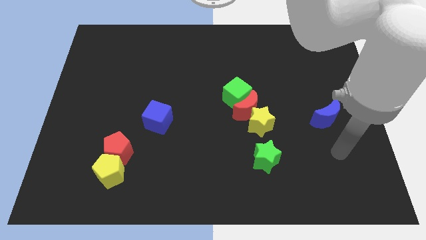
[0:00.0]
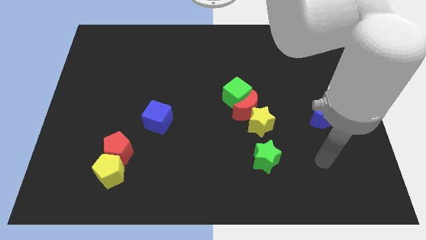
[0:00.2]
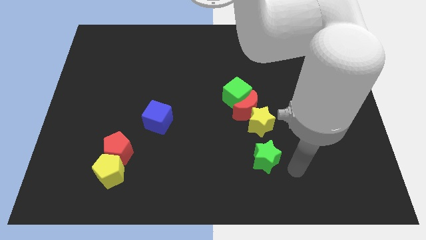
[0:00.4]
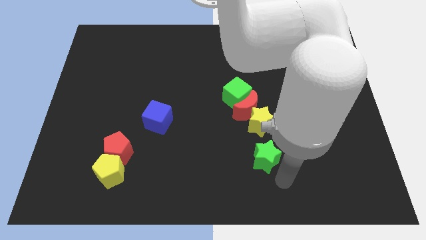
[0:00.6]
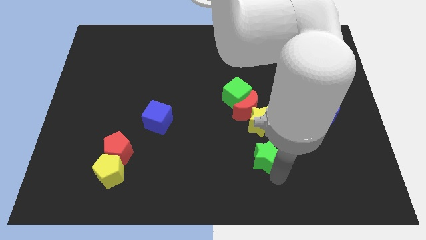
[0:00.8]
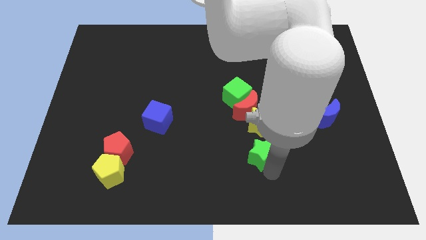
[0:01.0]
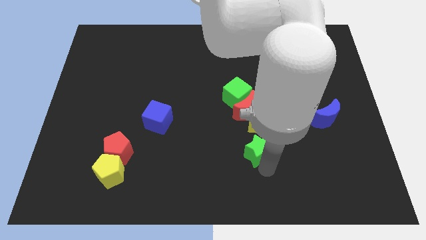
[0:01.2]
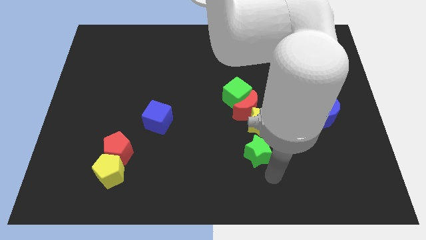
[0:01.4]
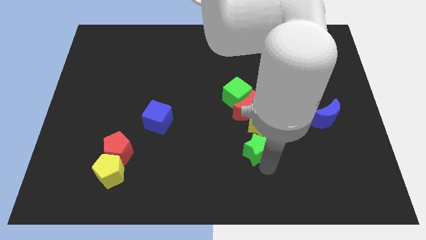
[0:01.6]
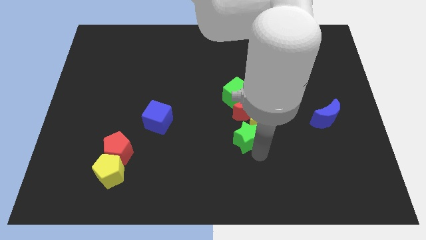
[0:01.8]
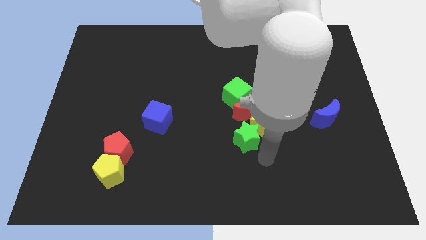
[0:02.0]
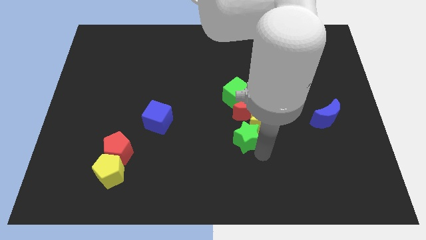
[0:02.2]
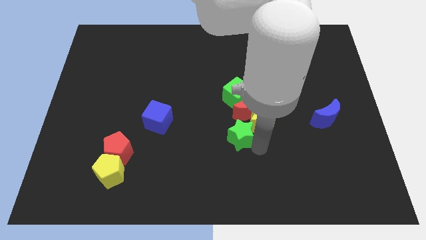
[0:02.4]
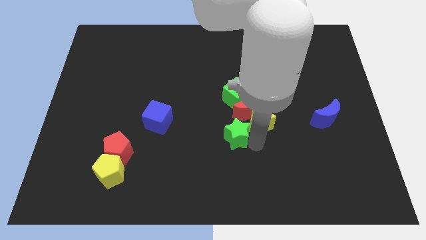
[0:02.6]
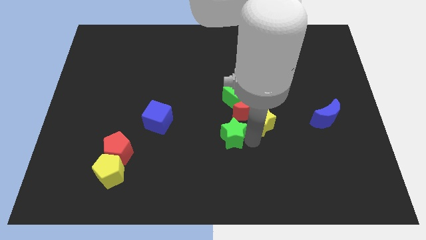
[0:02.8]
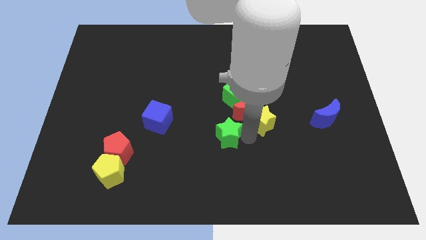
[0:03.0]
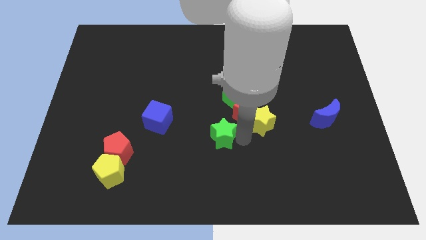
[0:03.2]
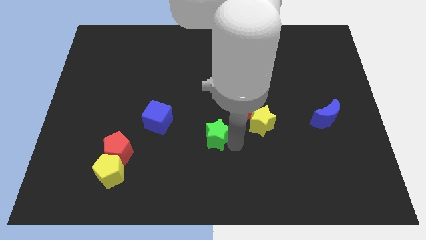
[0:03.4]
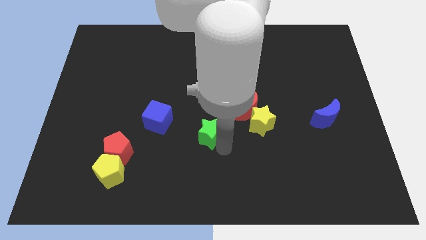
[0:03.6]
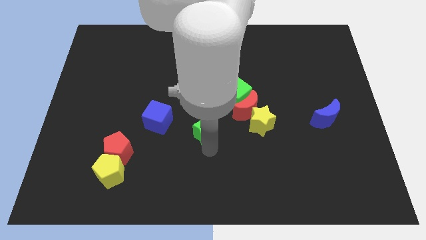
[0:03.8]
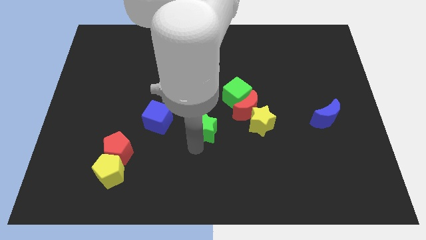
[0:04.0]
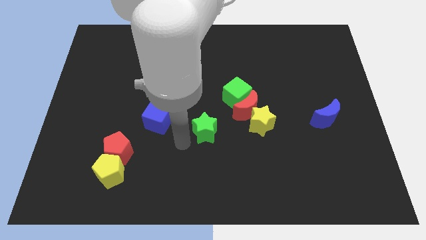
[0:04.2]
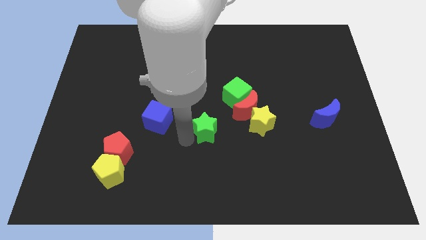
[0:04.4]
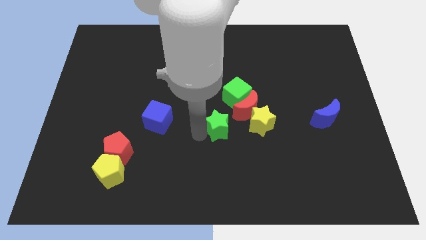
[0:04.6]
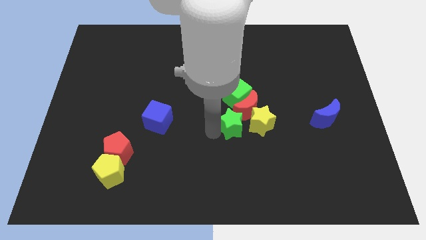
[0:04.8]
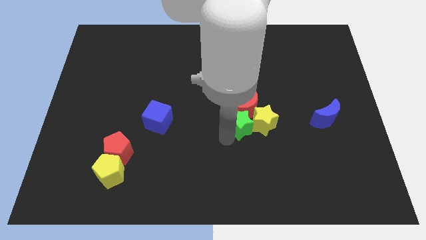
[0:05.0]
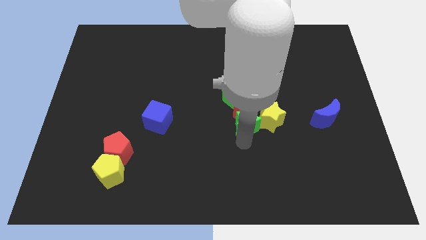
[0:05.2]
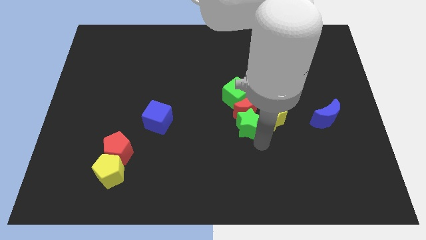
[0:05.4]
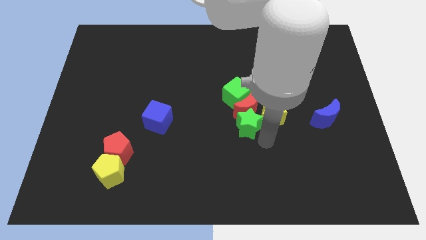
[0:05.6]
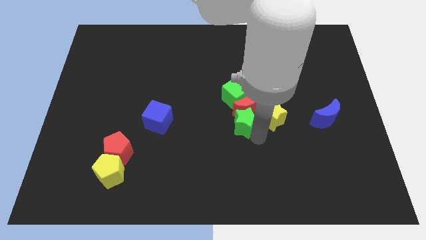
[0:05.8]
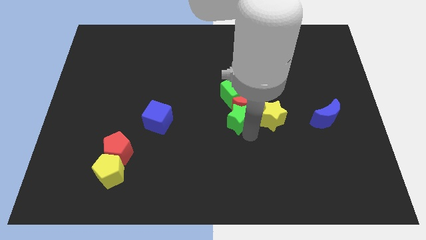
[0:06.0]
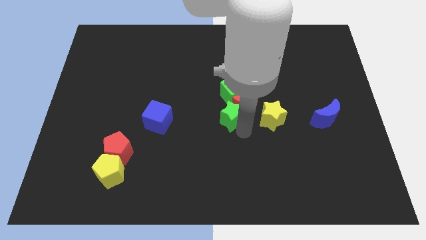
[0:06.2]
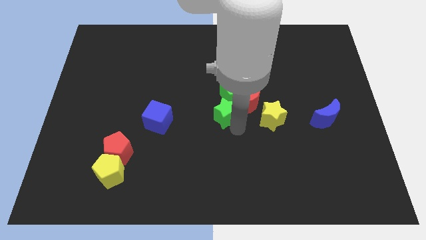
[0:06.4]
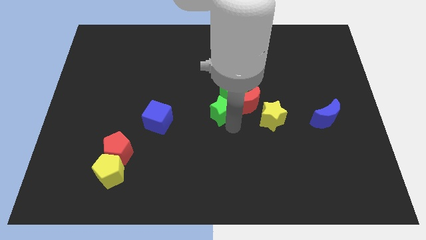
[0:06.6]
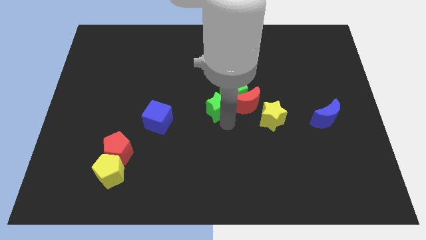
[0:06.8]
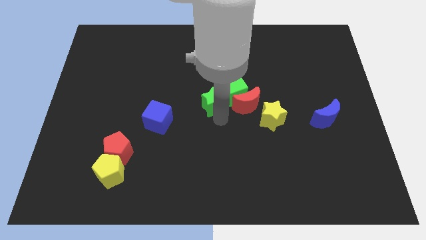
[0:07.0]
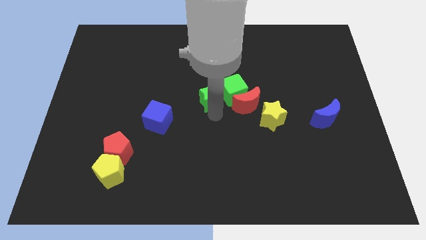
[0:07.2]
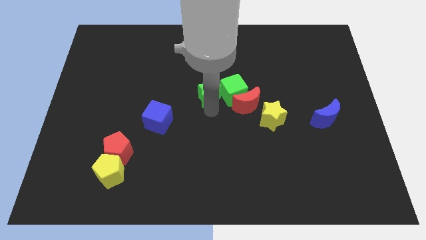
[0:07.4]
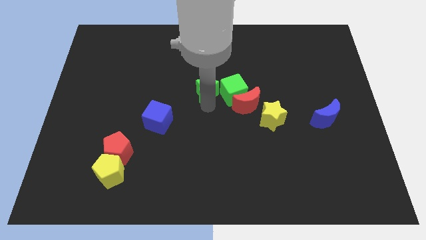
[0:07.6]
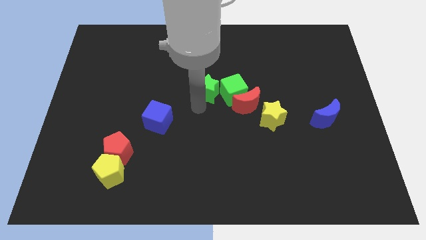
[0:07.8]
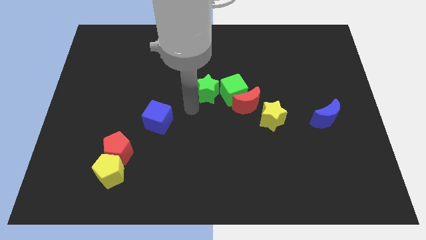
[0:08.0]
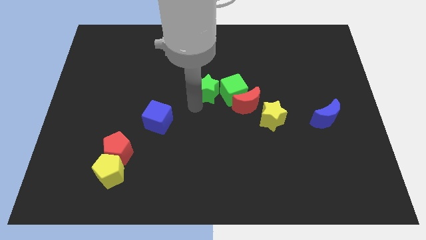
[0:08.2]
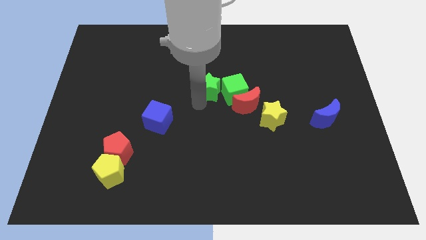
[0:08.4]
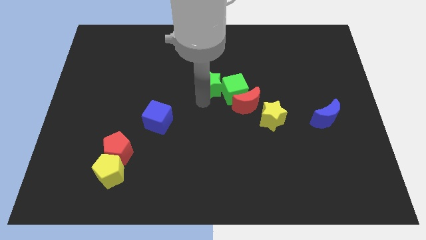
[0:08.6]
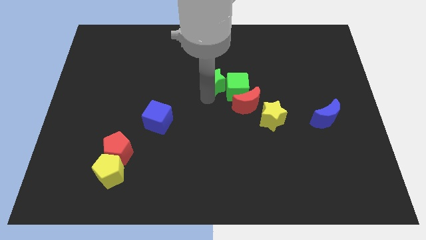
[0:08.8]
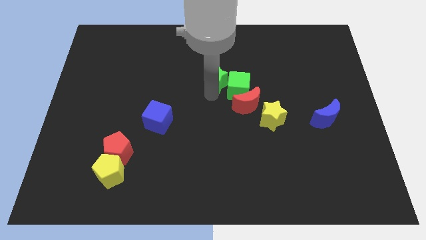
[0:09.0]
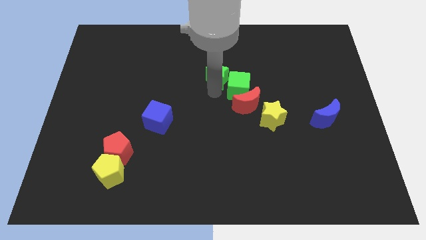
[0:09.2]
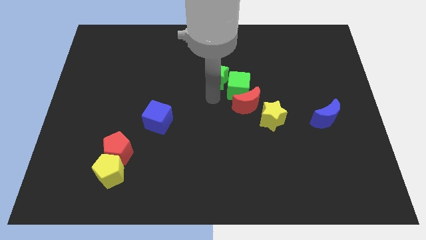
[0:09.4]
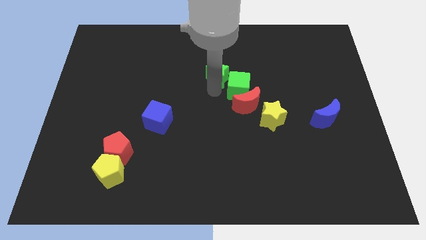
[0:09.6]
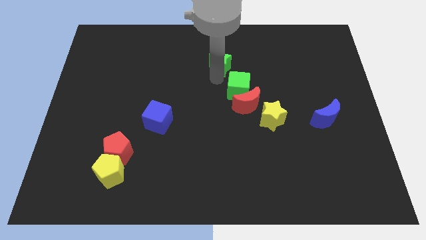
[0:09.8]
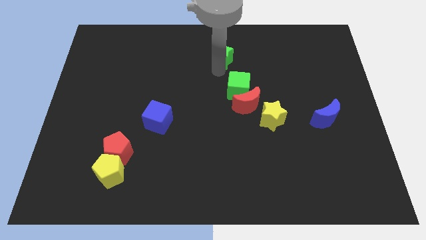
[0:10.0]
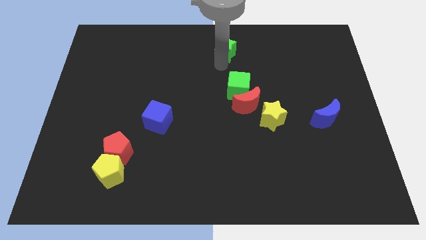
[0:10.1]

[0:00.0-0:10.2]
put the green star to the top side

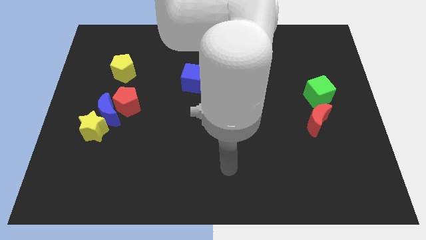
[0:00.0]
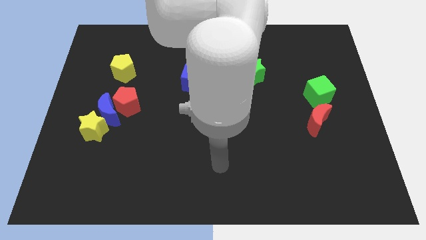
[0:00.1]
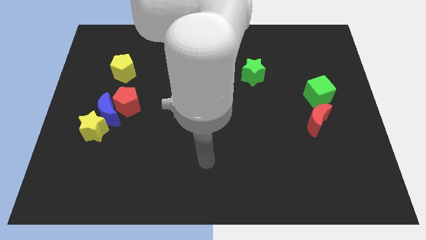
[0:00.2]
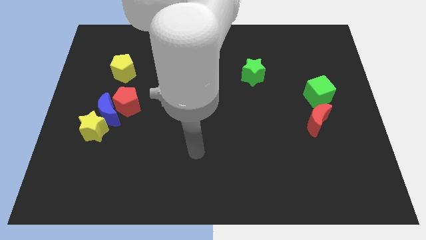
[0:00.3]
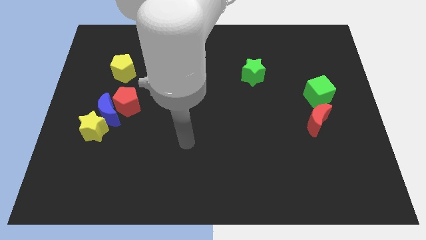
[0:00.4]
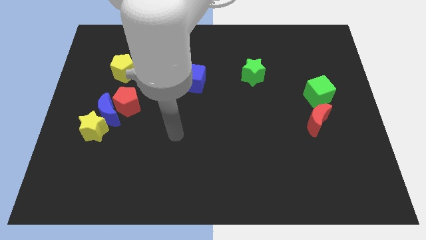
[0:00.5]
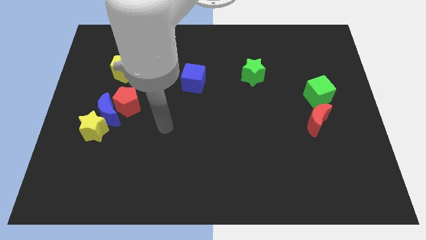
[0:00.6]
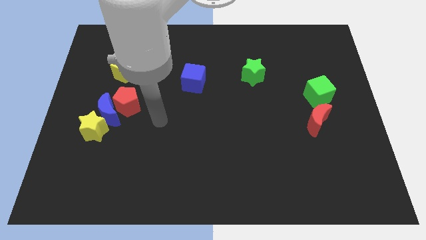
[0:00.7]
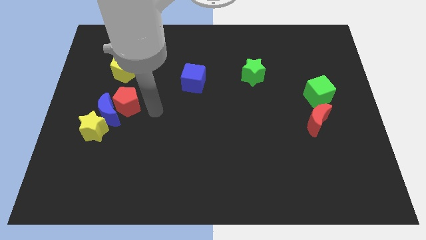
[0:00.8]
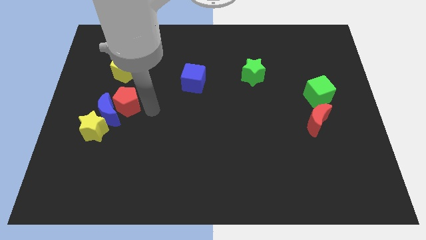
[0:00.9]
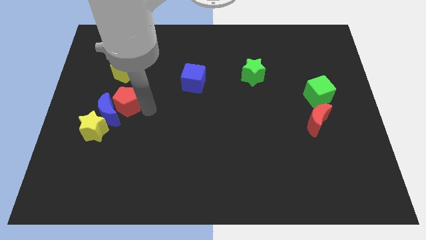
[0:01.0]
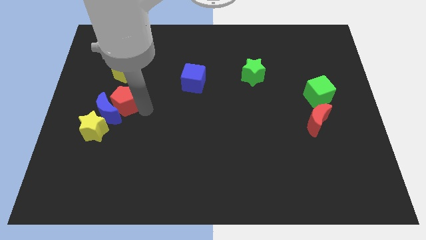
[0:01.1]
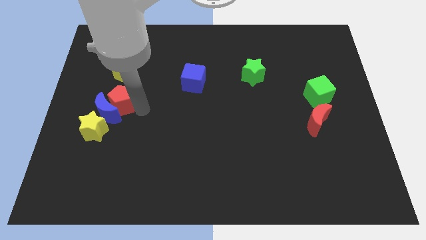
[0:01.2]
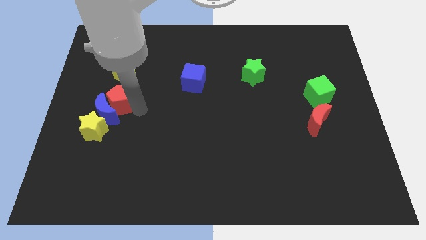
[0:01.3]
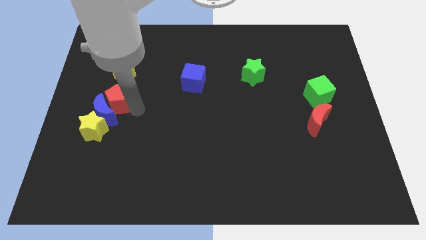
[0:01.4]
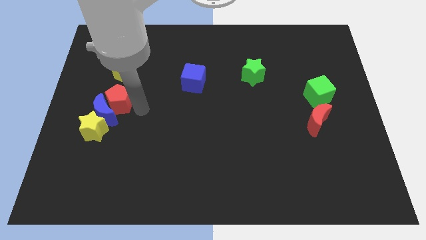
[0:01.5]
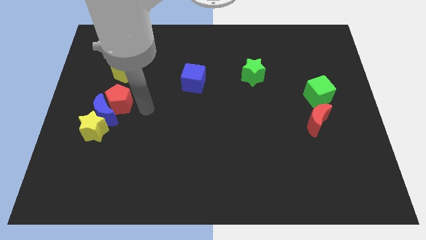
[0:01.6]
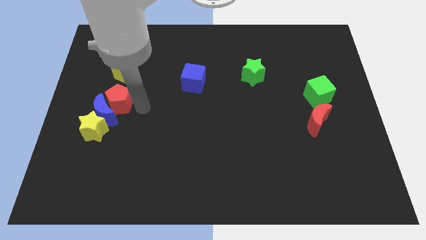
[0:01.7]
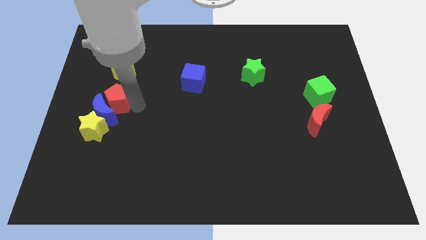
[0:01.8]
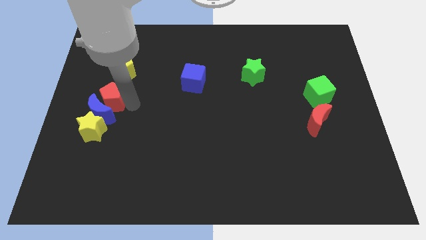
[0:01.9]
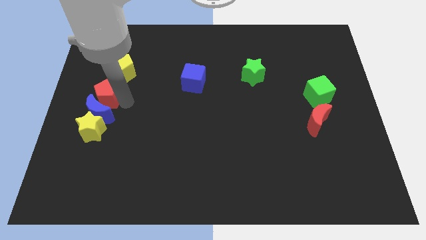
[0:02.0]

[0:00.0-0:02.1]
slide the red pentagon to the left side
